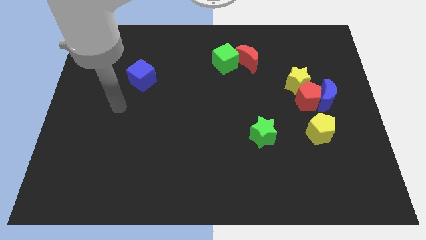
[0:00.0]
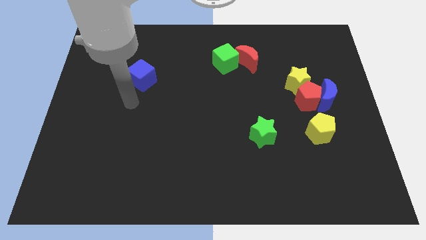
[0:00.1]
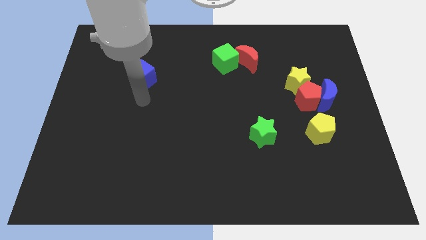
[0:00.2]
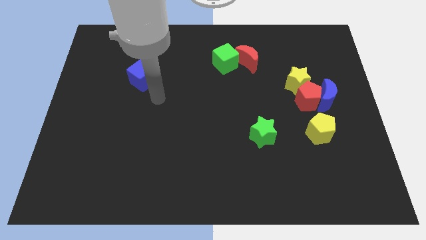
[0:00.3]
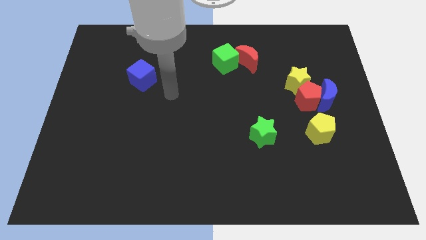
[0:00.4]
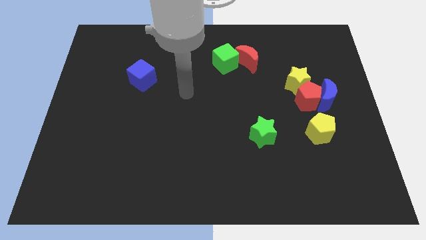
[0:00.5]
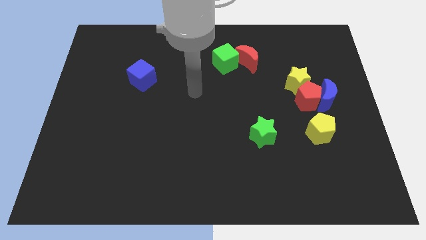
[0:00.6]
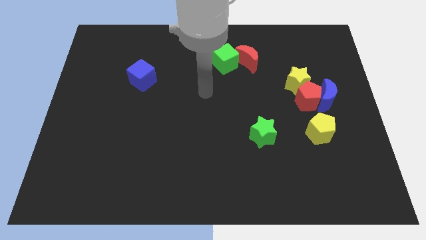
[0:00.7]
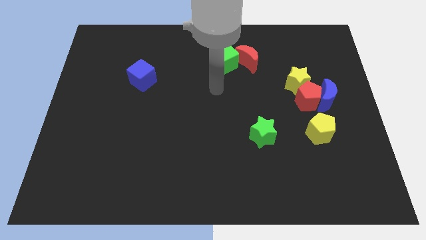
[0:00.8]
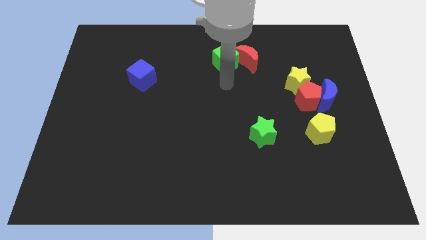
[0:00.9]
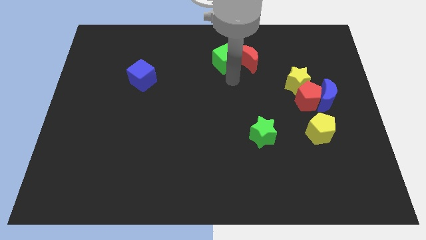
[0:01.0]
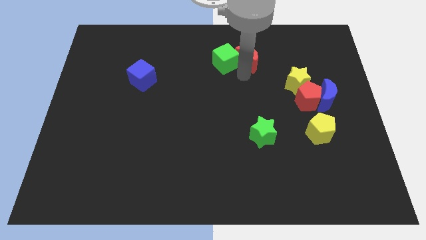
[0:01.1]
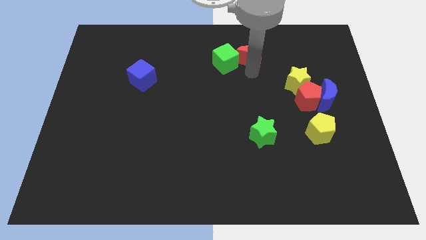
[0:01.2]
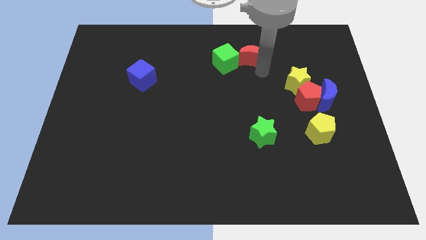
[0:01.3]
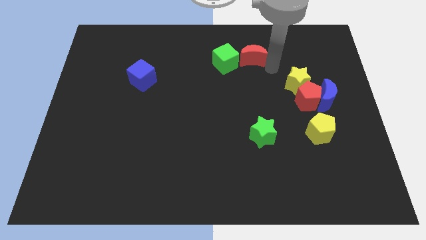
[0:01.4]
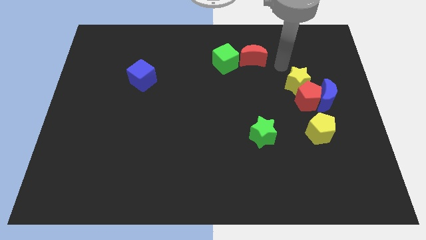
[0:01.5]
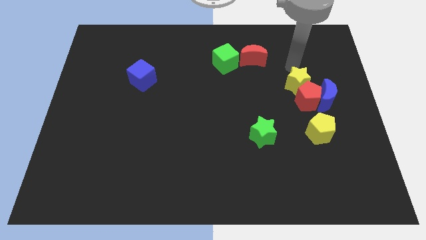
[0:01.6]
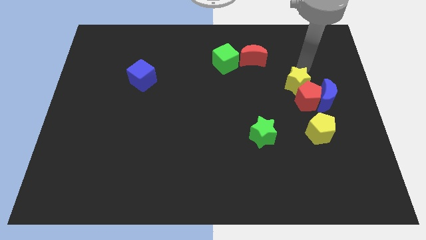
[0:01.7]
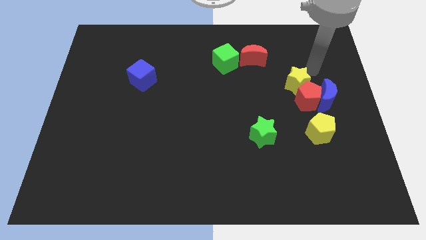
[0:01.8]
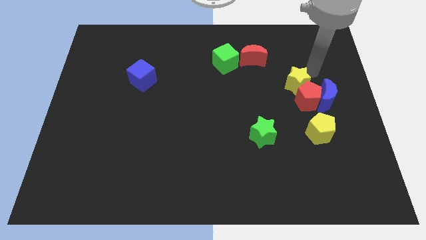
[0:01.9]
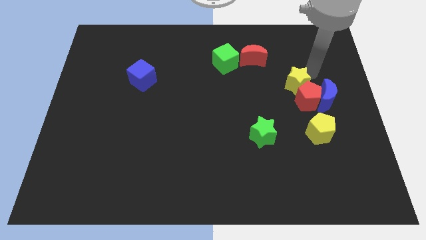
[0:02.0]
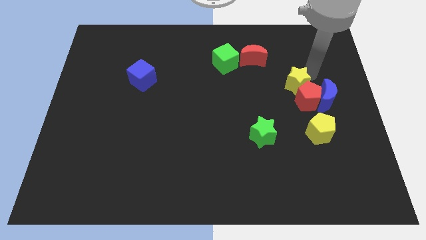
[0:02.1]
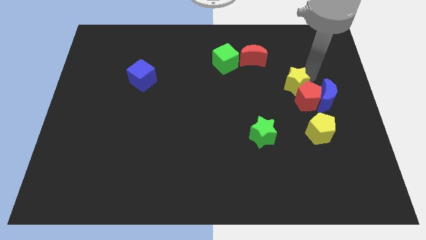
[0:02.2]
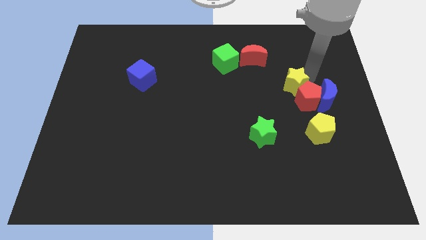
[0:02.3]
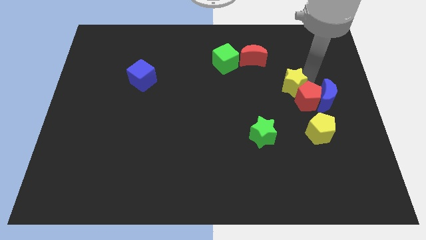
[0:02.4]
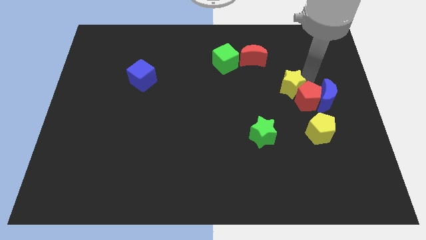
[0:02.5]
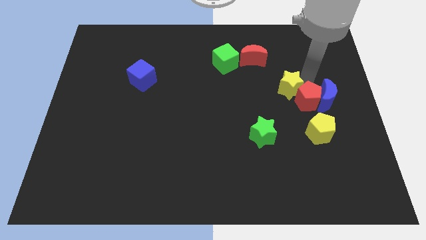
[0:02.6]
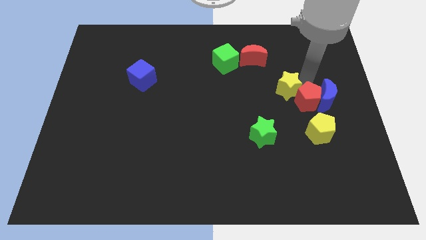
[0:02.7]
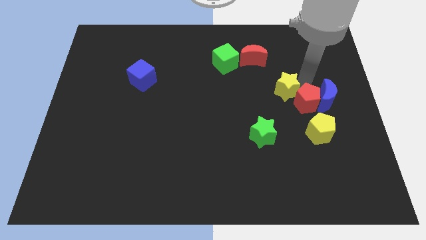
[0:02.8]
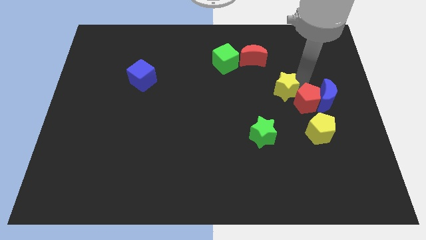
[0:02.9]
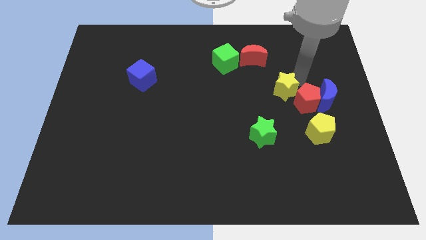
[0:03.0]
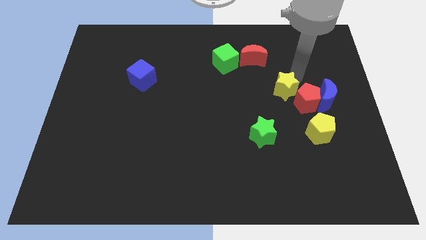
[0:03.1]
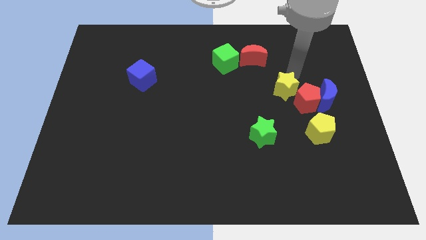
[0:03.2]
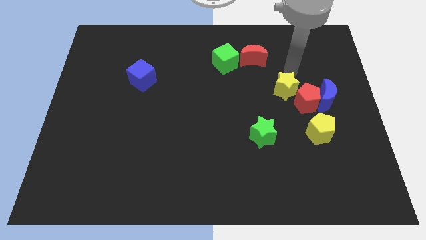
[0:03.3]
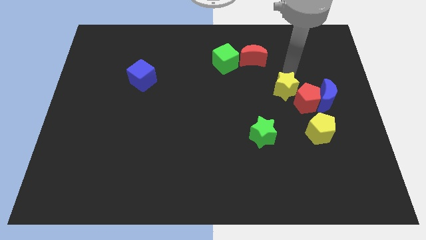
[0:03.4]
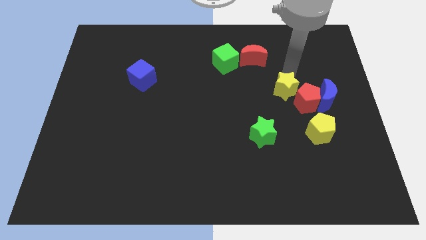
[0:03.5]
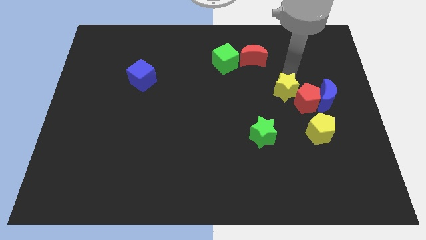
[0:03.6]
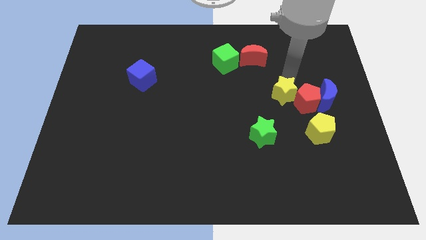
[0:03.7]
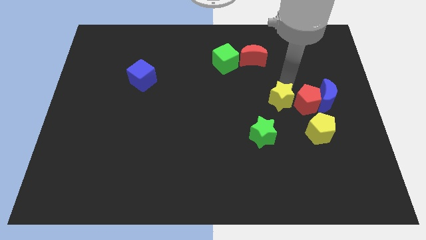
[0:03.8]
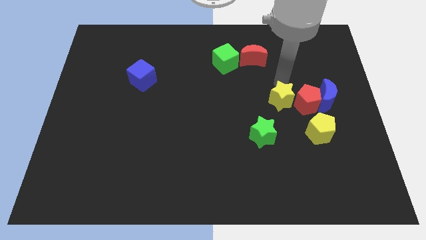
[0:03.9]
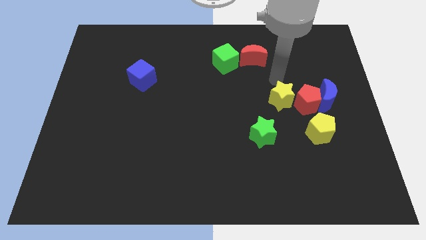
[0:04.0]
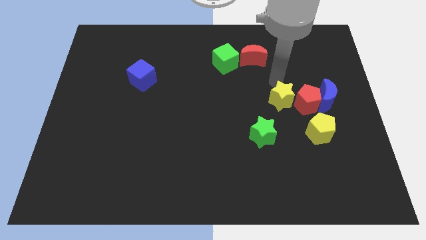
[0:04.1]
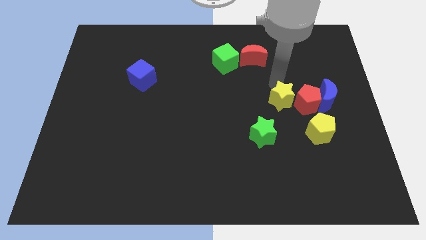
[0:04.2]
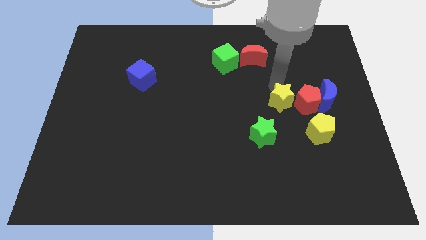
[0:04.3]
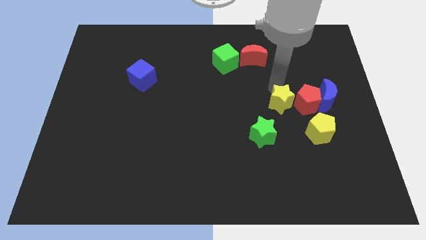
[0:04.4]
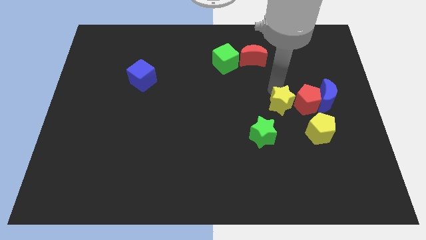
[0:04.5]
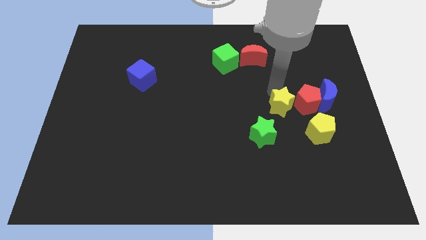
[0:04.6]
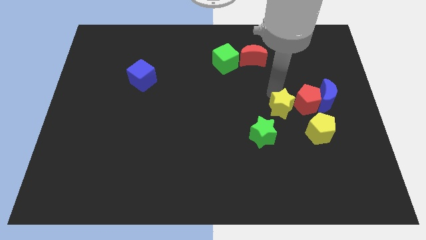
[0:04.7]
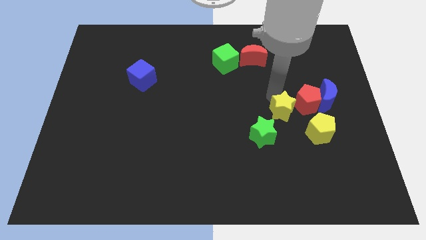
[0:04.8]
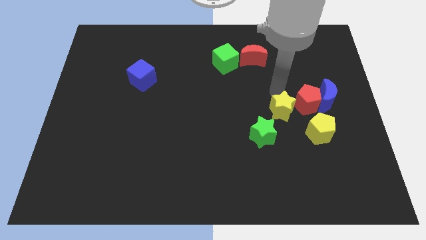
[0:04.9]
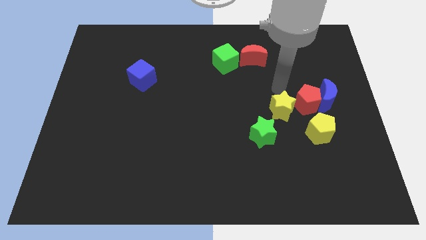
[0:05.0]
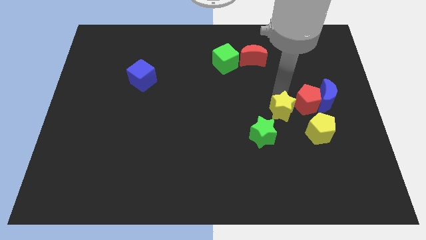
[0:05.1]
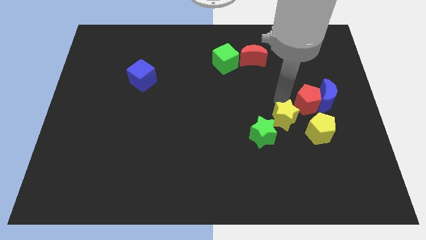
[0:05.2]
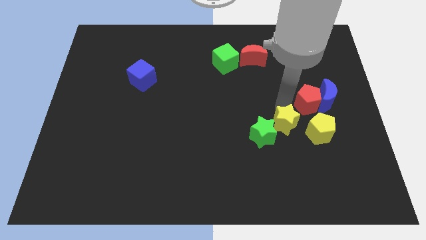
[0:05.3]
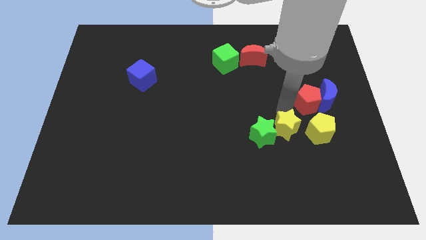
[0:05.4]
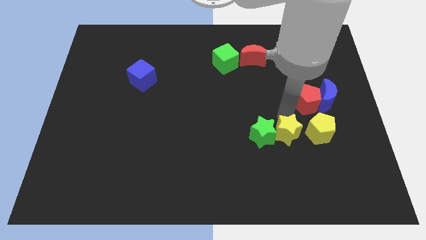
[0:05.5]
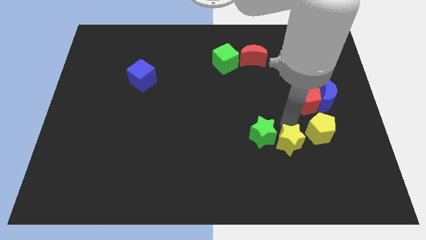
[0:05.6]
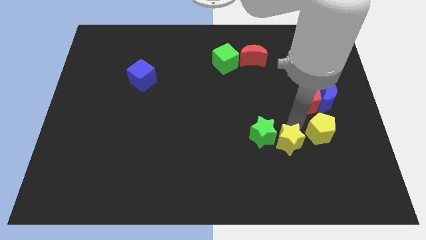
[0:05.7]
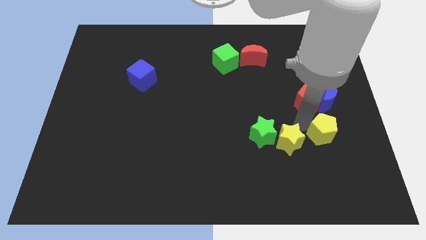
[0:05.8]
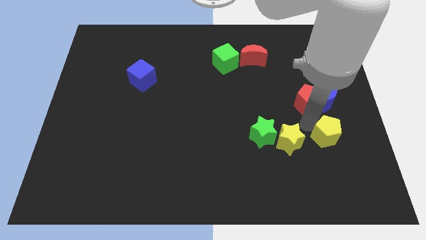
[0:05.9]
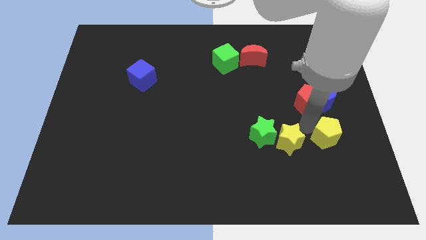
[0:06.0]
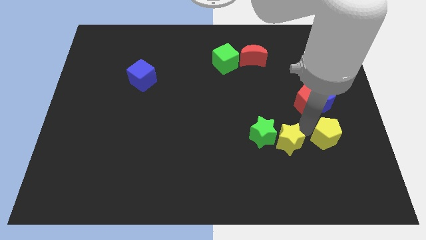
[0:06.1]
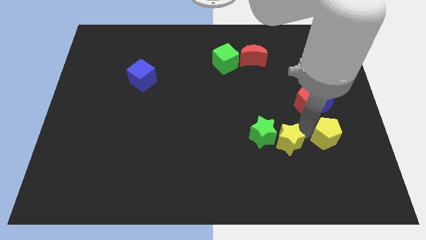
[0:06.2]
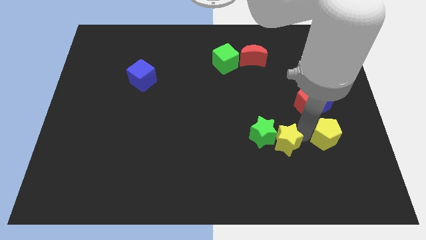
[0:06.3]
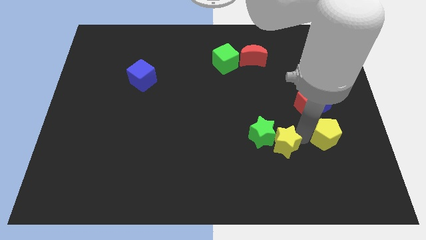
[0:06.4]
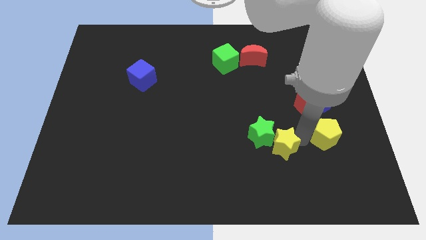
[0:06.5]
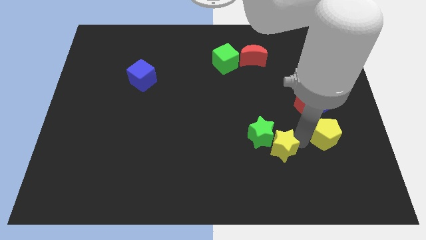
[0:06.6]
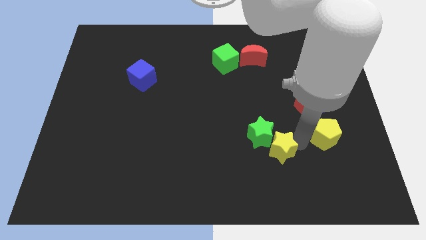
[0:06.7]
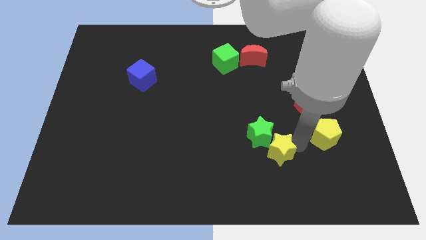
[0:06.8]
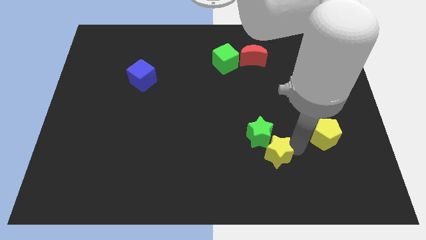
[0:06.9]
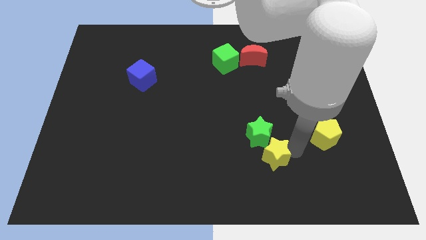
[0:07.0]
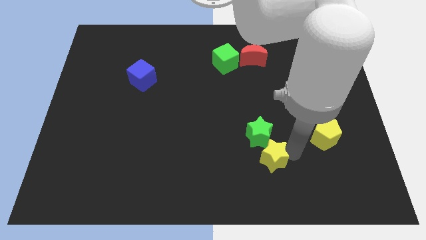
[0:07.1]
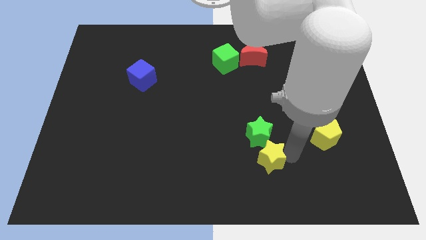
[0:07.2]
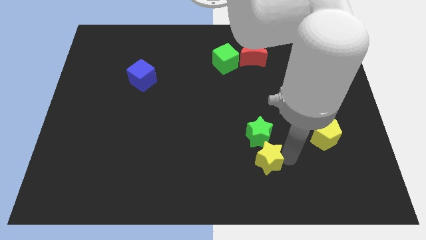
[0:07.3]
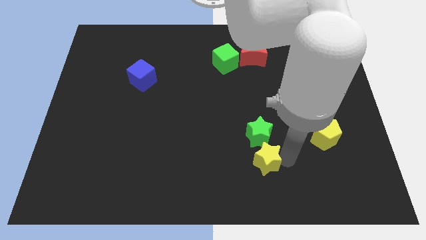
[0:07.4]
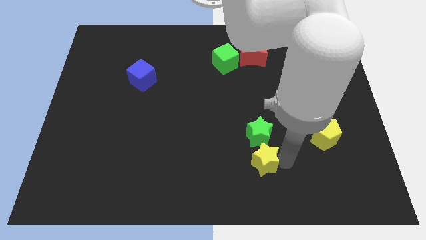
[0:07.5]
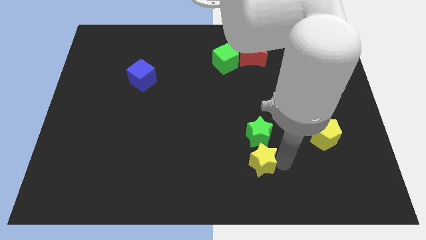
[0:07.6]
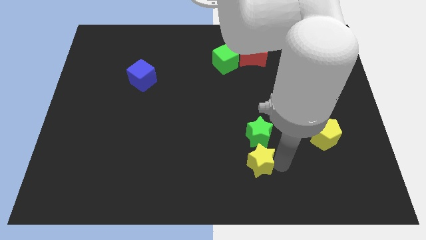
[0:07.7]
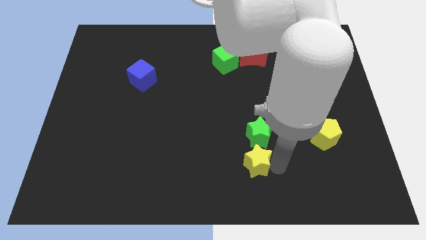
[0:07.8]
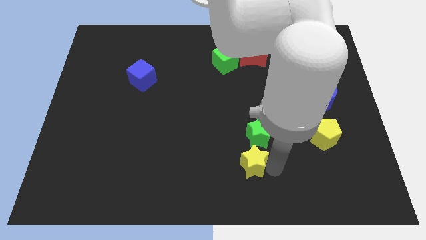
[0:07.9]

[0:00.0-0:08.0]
push the yellow star to the bottom side
